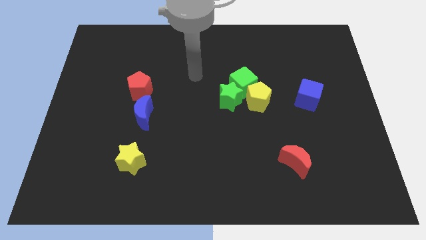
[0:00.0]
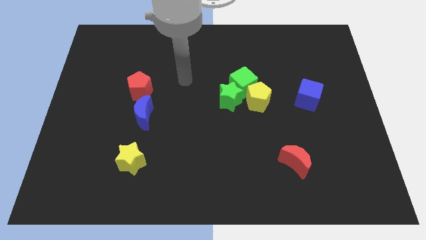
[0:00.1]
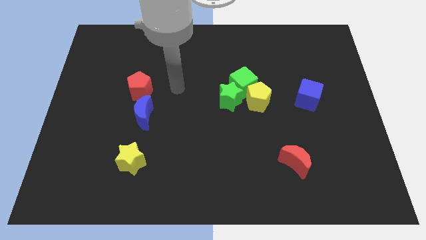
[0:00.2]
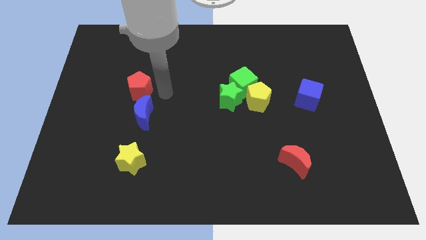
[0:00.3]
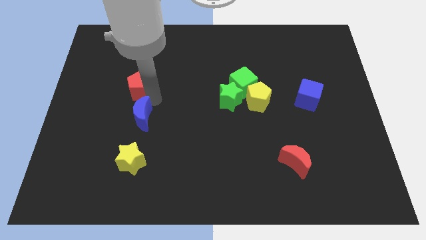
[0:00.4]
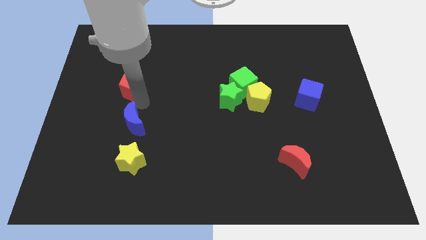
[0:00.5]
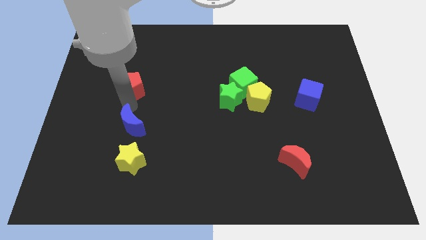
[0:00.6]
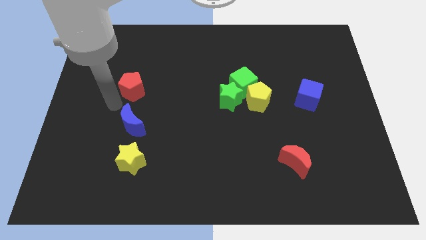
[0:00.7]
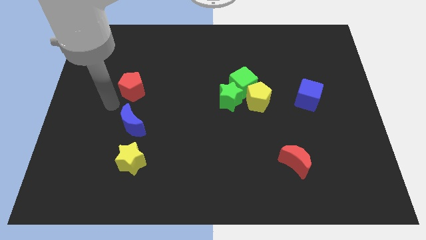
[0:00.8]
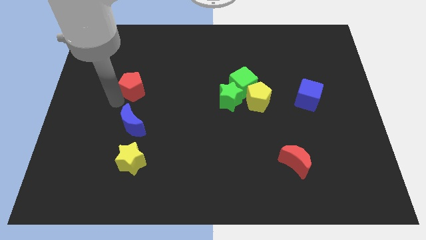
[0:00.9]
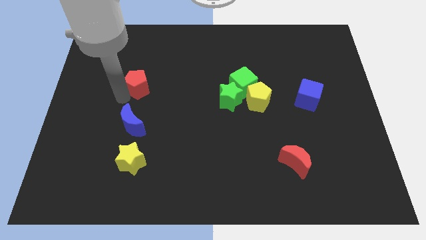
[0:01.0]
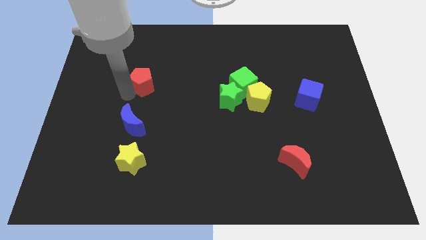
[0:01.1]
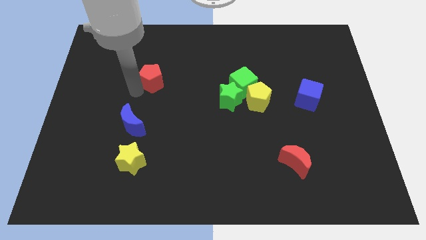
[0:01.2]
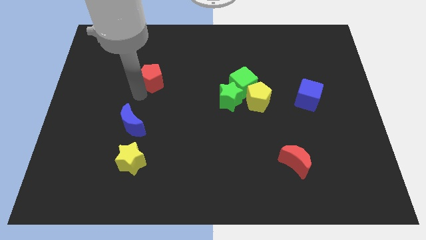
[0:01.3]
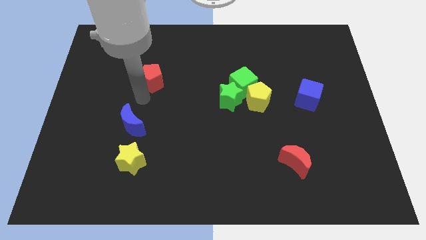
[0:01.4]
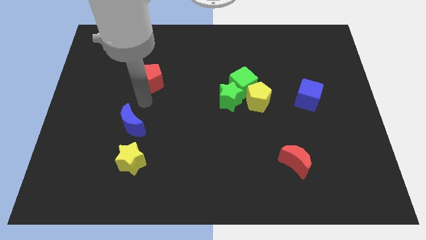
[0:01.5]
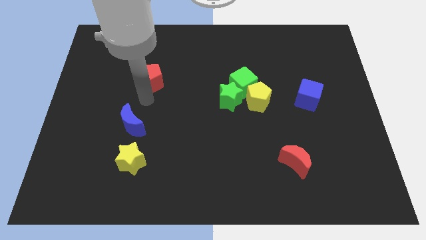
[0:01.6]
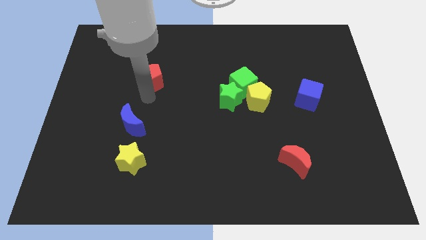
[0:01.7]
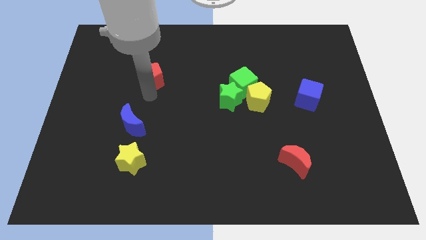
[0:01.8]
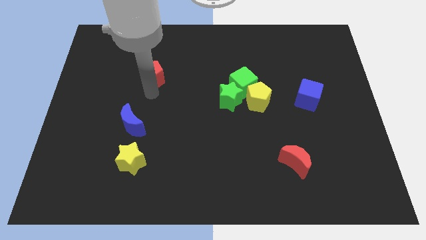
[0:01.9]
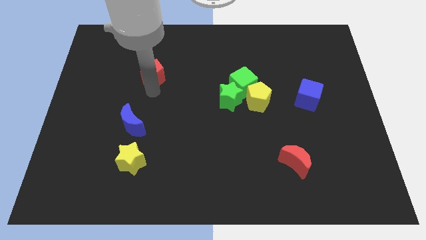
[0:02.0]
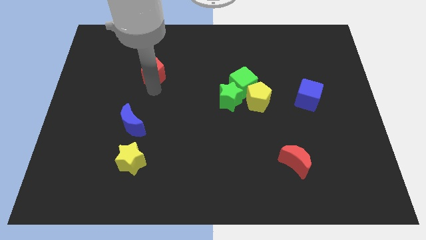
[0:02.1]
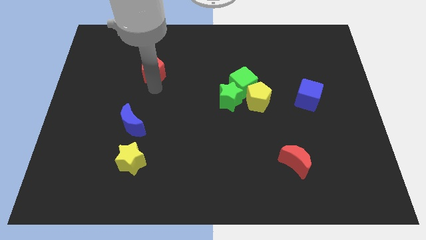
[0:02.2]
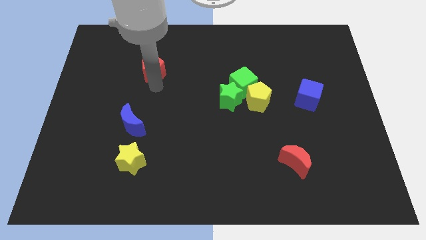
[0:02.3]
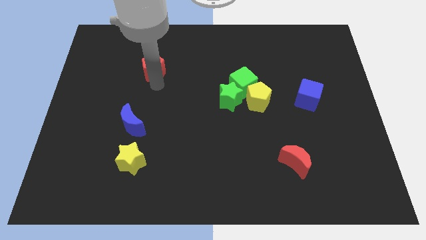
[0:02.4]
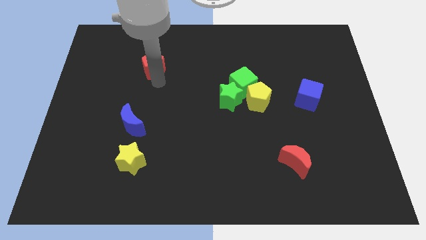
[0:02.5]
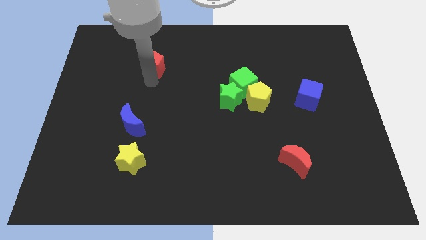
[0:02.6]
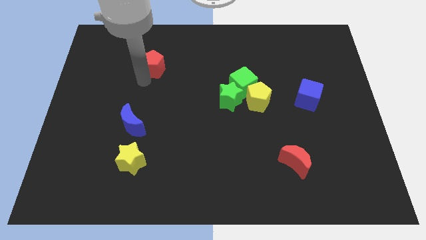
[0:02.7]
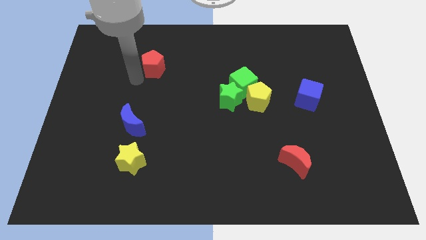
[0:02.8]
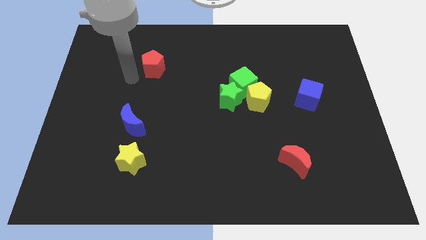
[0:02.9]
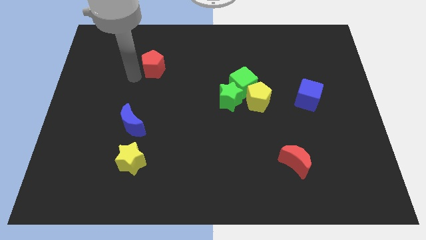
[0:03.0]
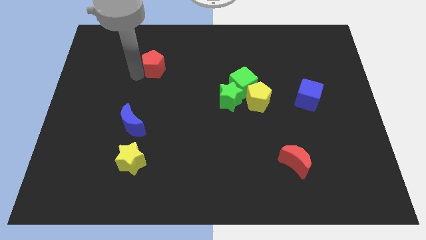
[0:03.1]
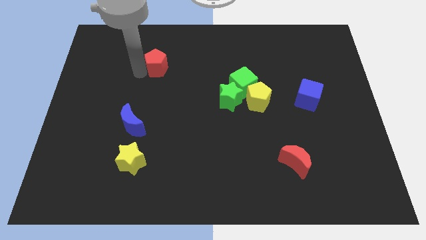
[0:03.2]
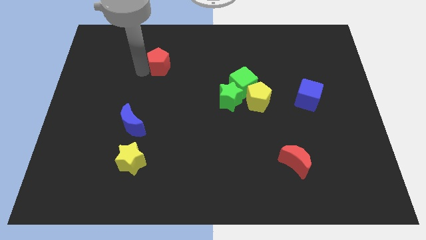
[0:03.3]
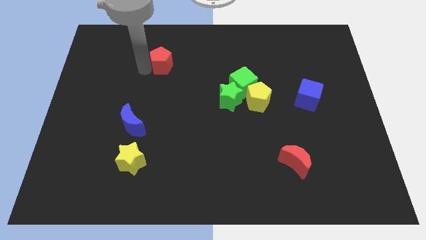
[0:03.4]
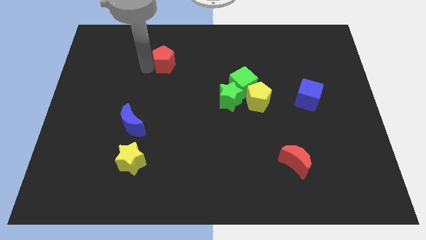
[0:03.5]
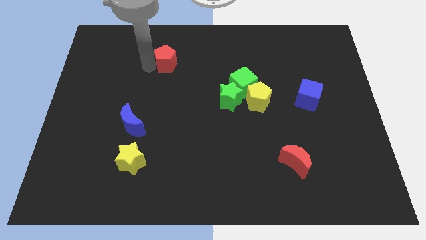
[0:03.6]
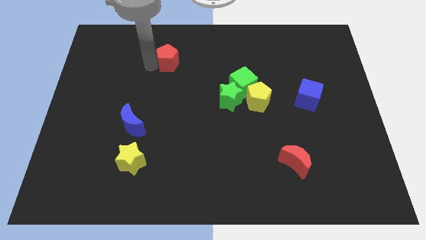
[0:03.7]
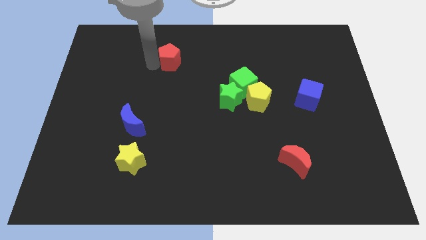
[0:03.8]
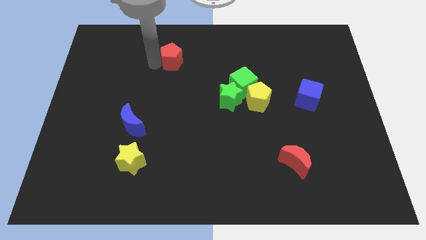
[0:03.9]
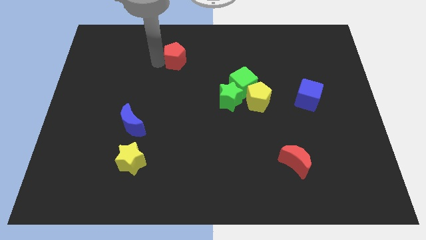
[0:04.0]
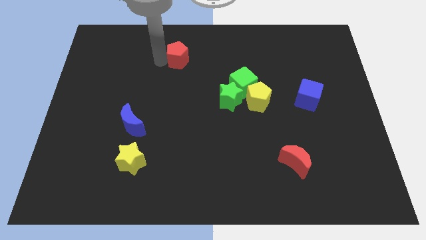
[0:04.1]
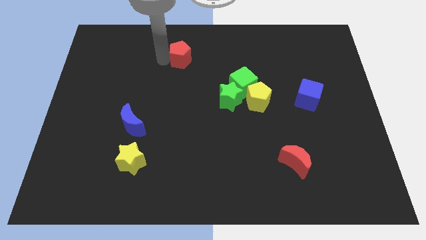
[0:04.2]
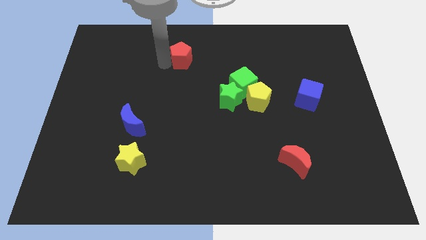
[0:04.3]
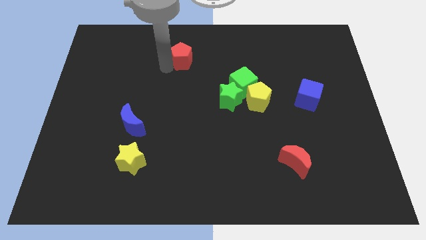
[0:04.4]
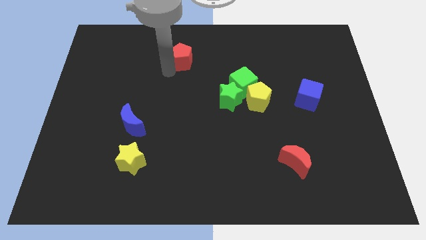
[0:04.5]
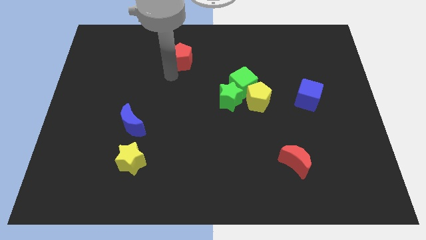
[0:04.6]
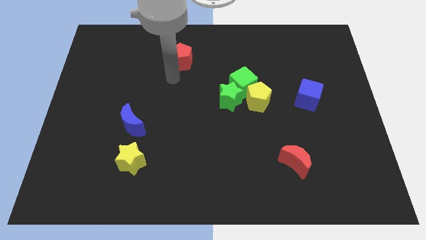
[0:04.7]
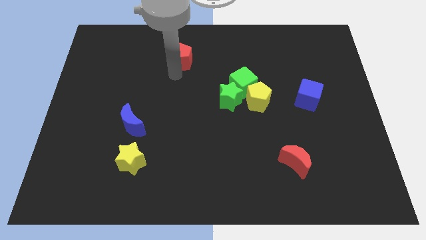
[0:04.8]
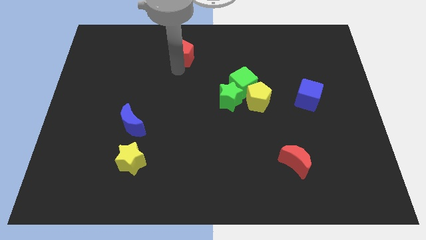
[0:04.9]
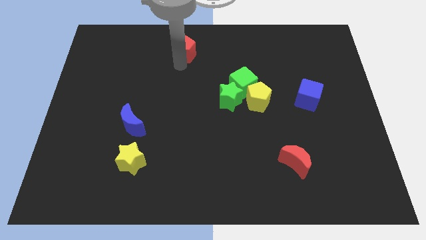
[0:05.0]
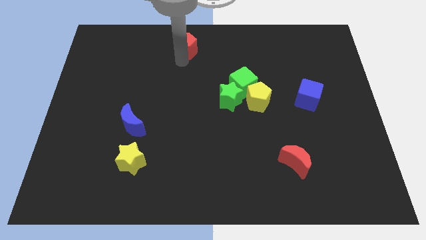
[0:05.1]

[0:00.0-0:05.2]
move the red pentagon to the top side

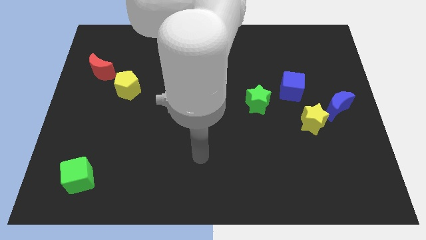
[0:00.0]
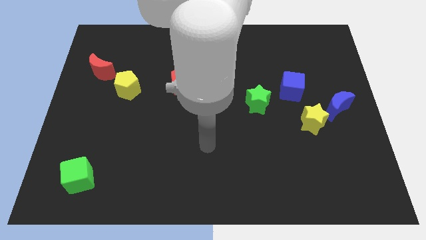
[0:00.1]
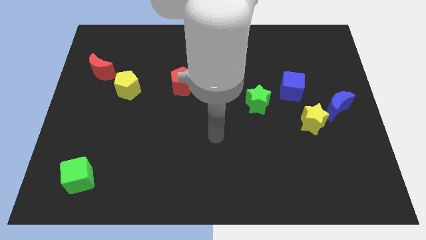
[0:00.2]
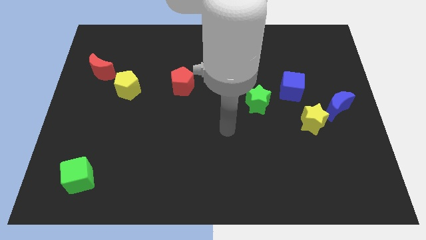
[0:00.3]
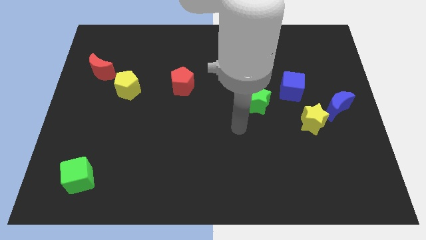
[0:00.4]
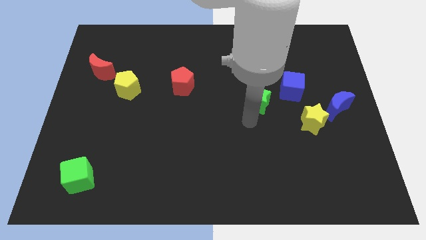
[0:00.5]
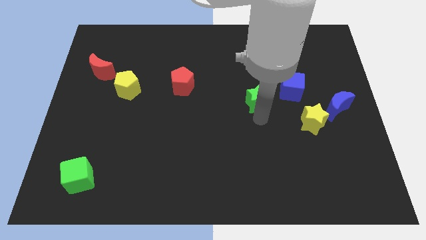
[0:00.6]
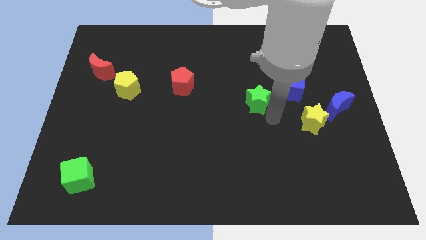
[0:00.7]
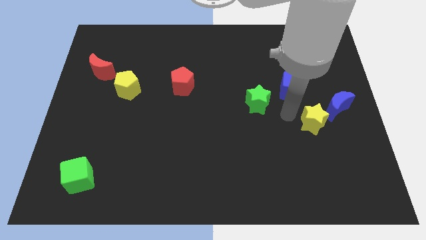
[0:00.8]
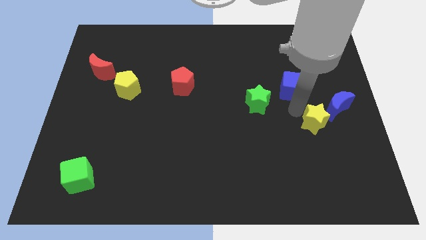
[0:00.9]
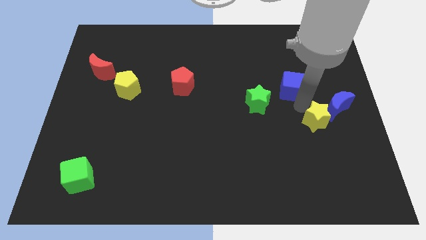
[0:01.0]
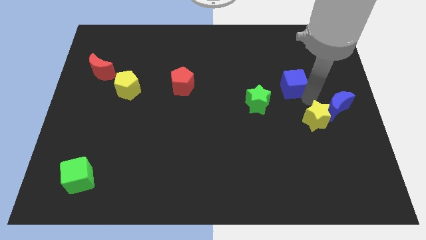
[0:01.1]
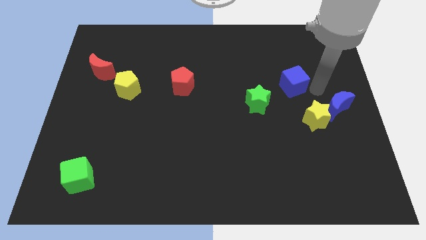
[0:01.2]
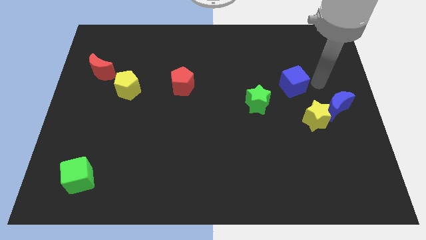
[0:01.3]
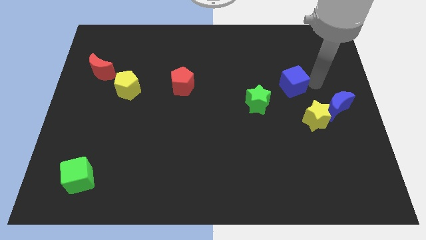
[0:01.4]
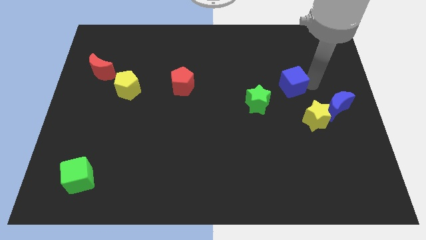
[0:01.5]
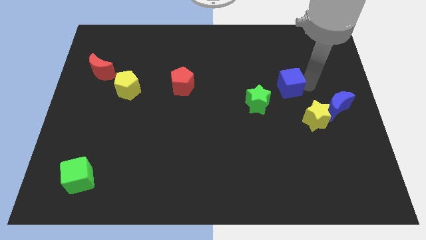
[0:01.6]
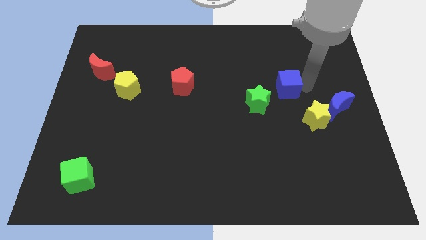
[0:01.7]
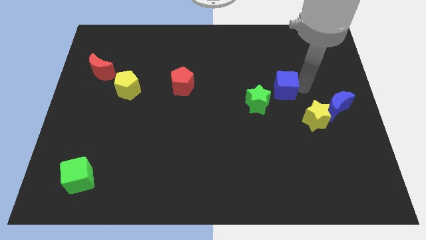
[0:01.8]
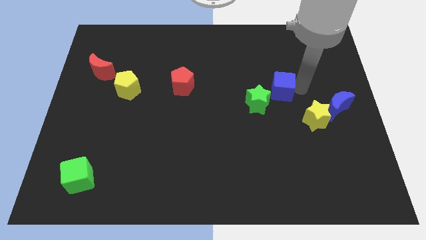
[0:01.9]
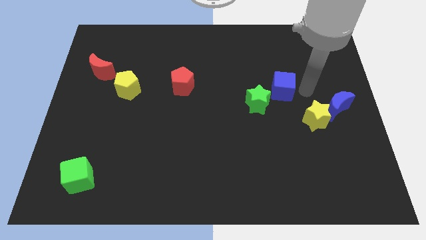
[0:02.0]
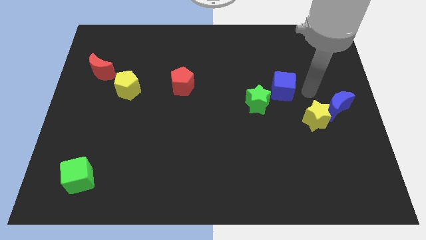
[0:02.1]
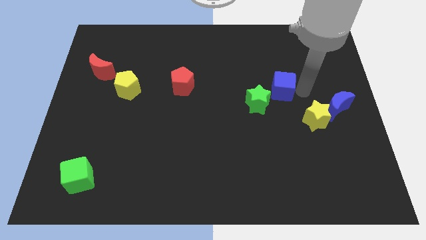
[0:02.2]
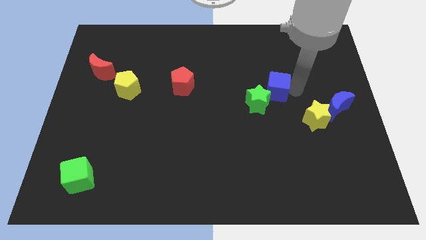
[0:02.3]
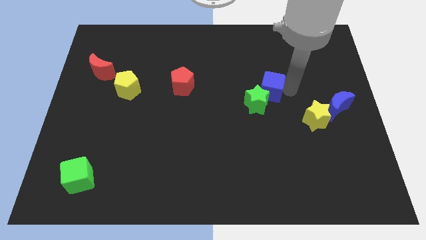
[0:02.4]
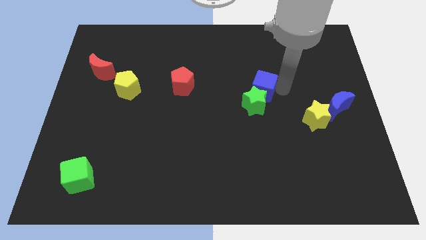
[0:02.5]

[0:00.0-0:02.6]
move the blue cube to the center of the board
